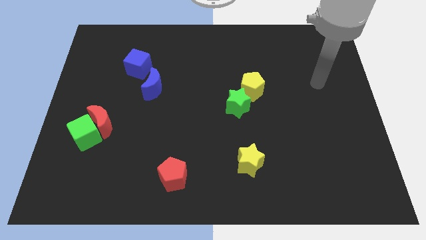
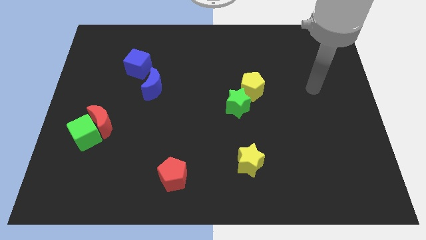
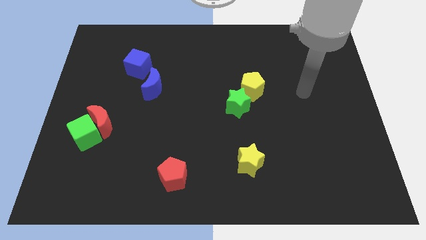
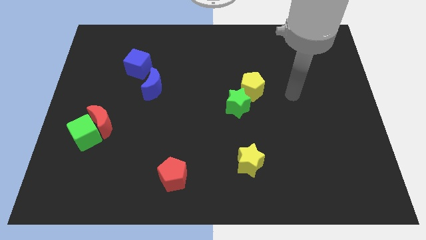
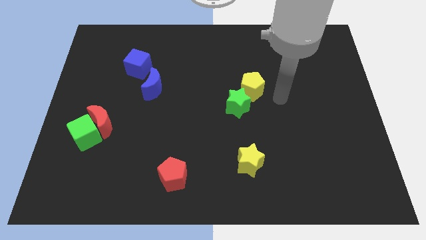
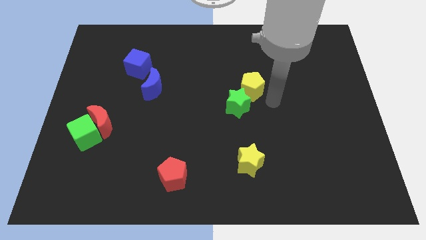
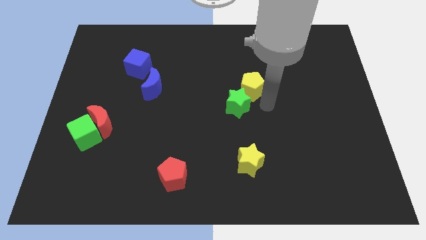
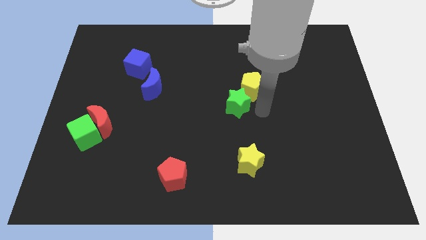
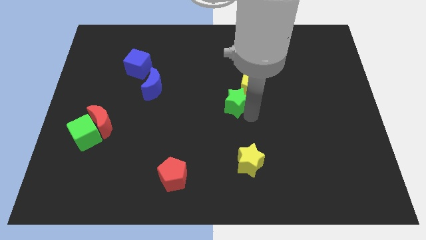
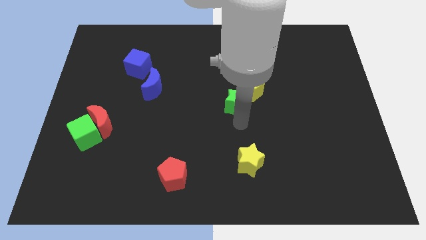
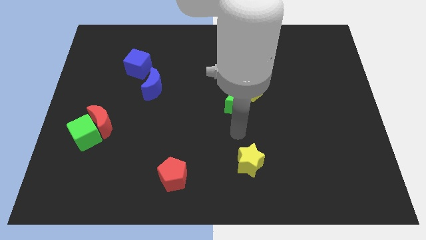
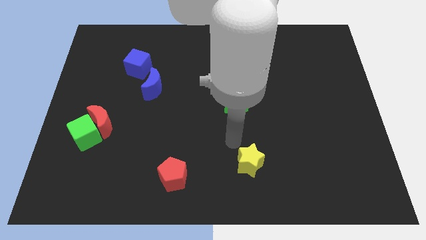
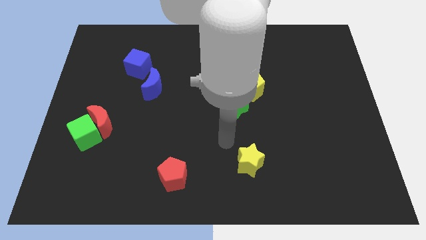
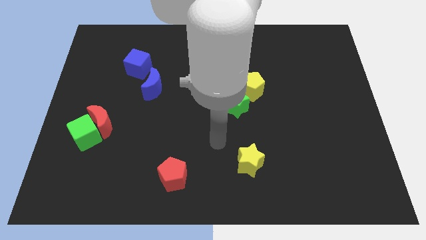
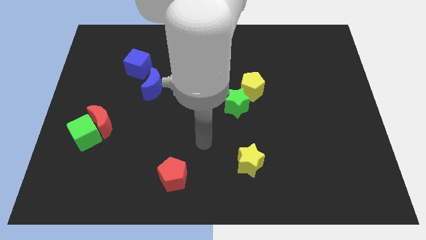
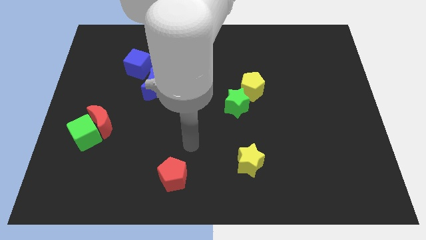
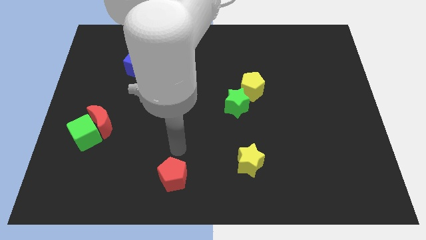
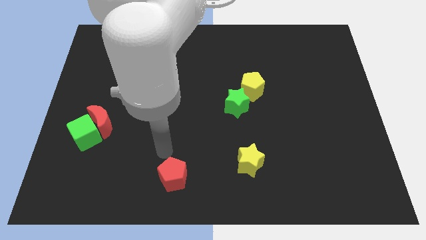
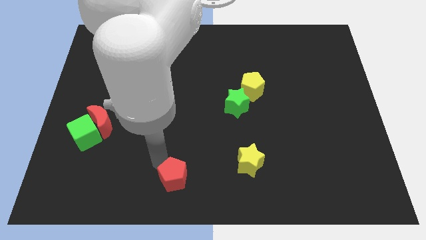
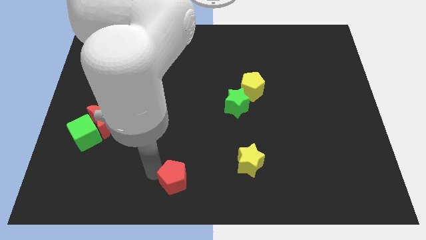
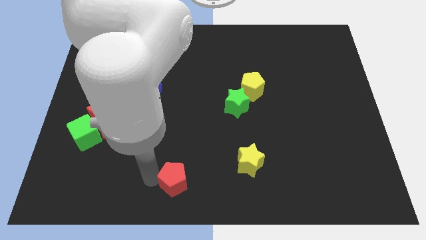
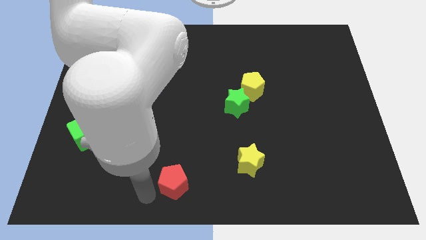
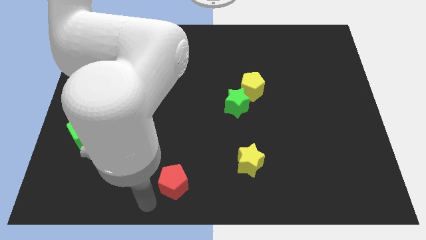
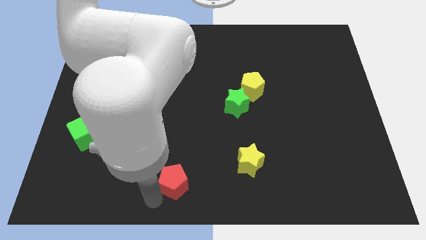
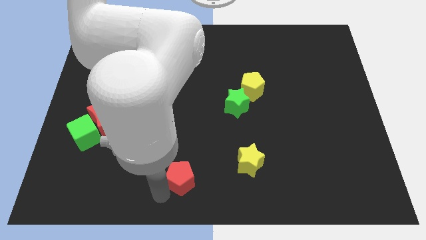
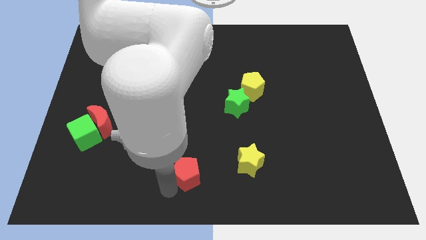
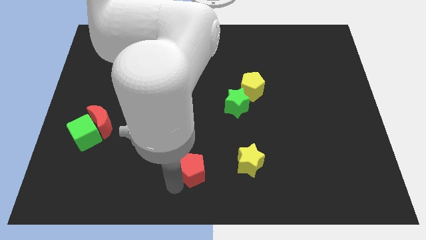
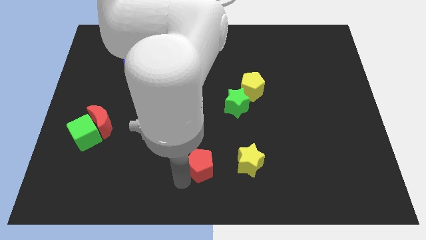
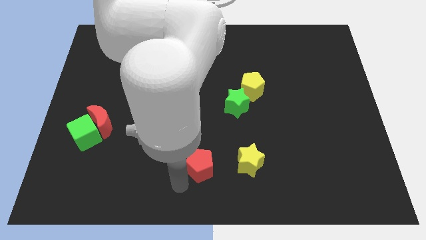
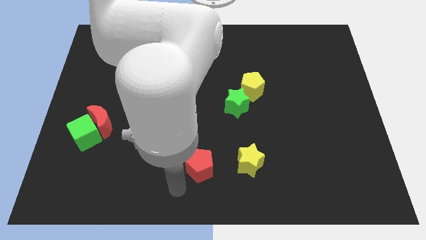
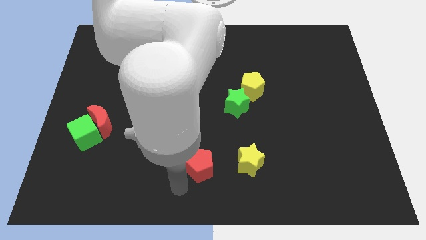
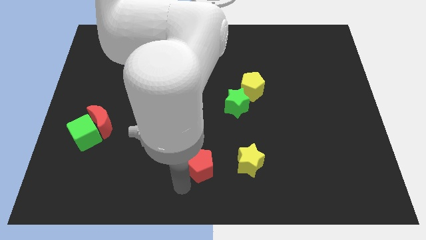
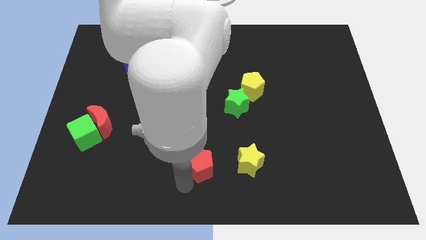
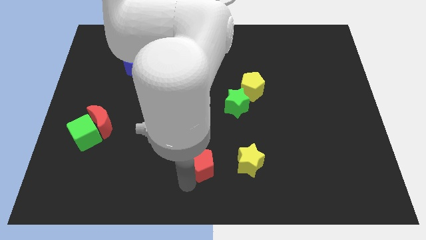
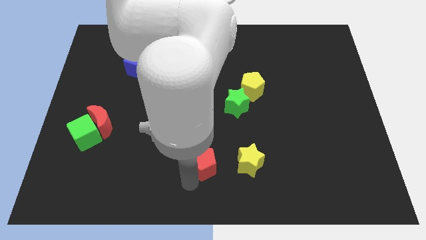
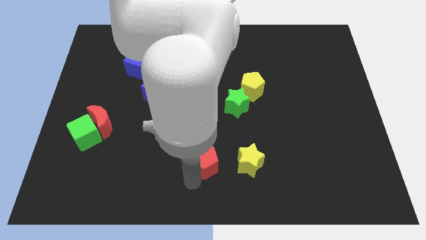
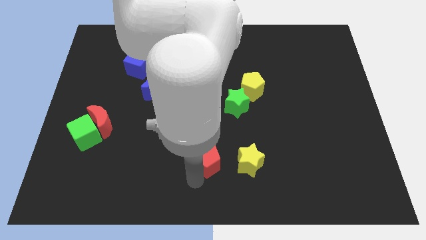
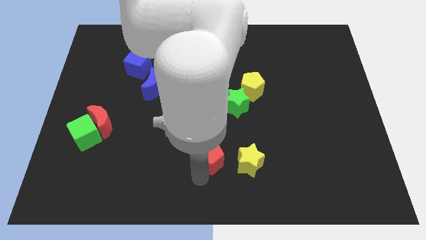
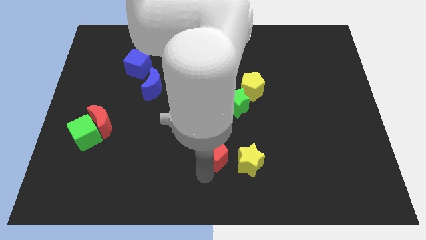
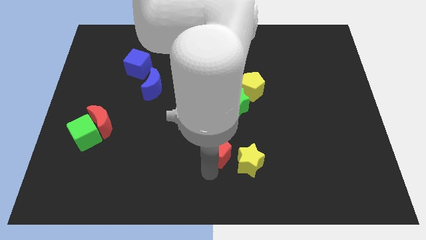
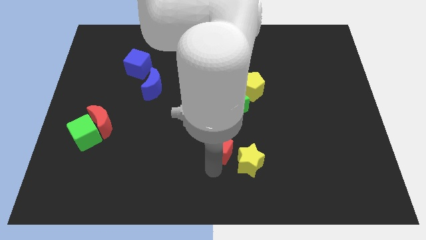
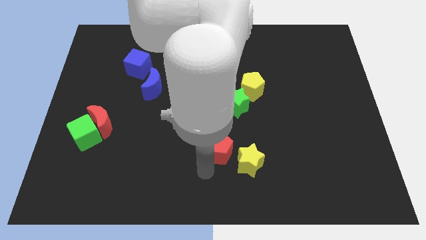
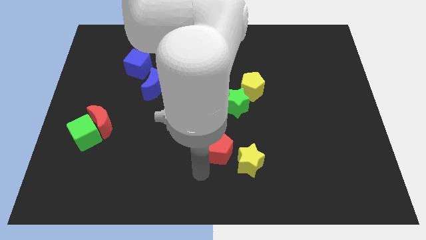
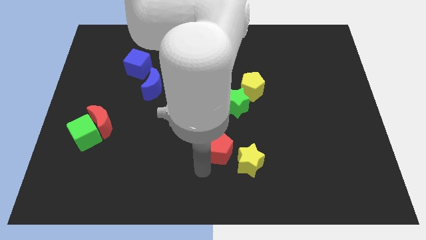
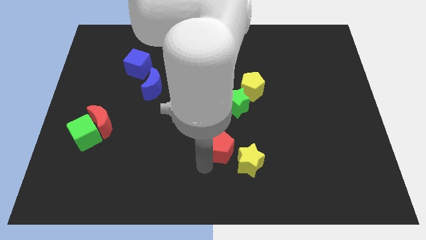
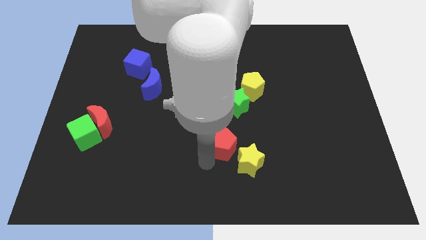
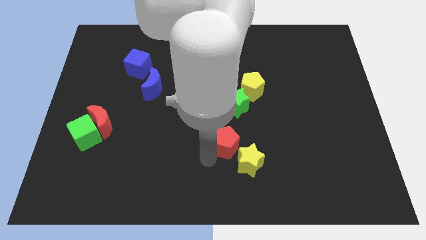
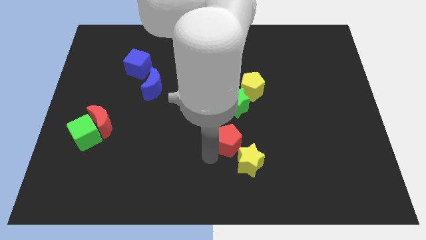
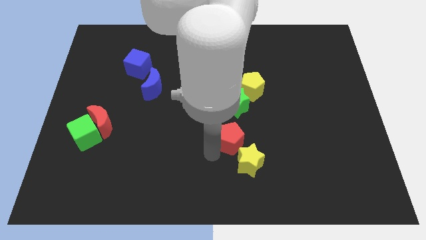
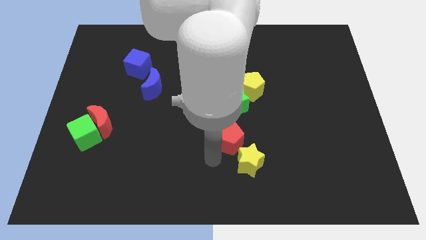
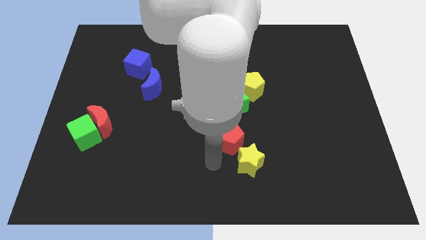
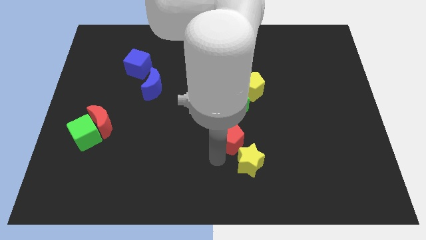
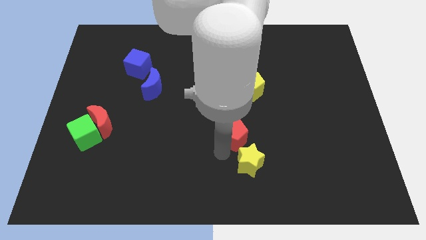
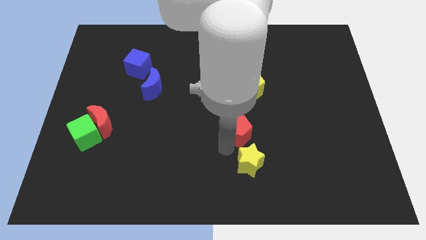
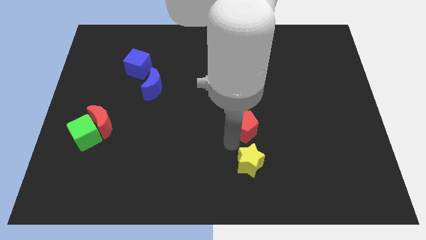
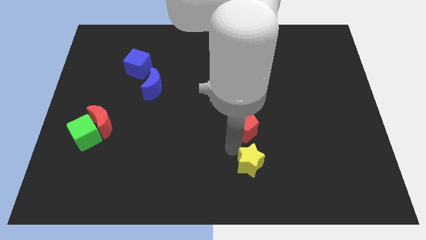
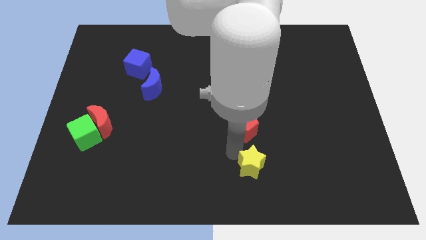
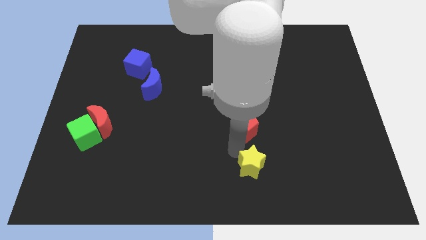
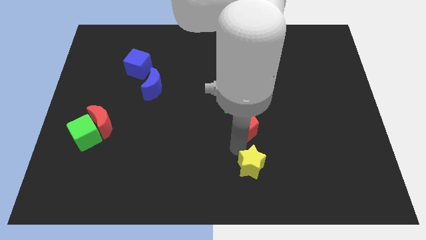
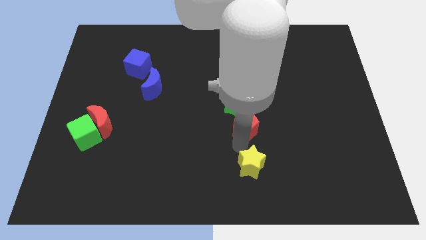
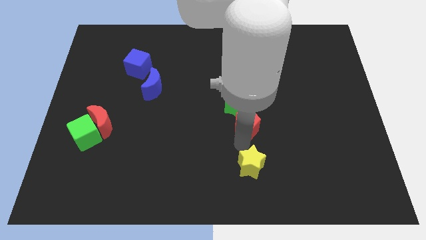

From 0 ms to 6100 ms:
push the red pentagon up and right diagonally

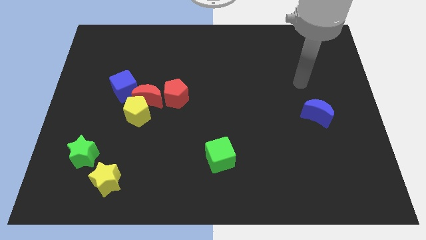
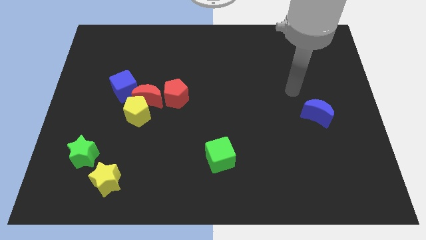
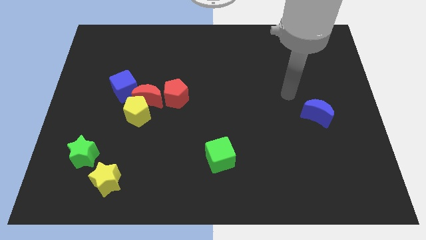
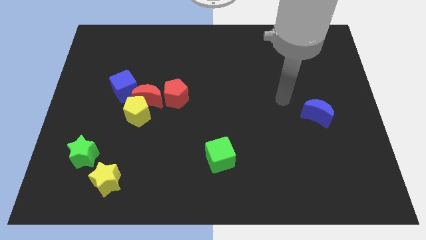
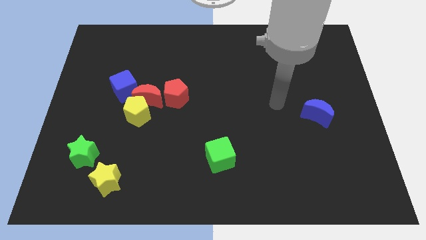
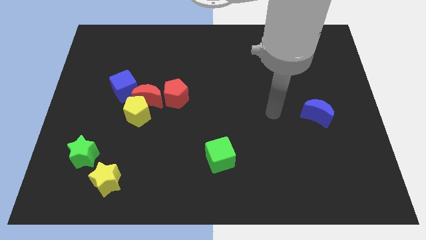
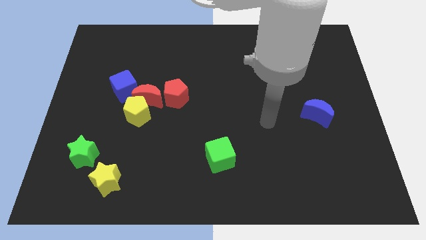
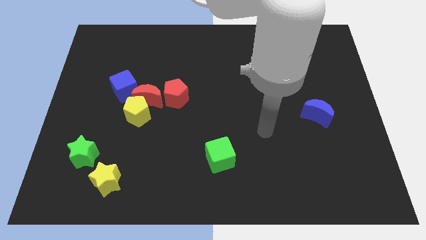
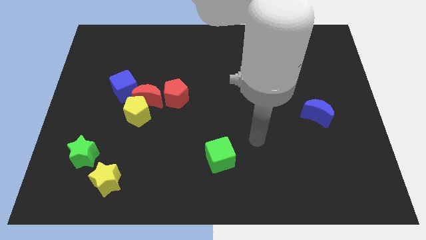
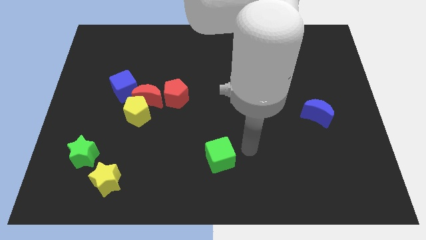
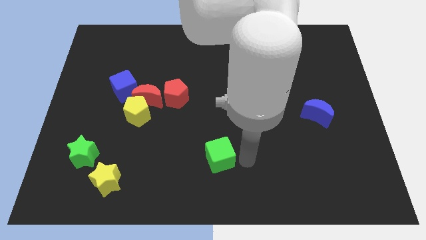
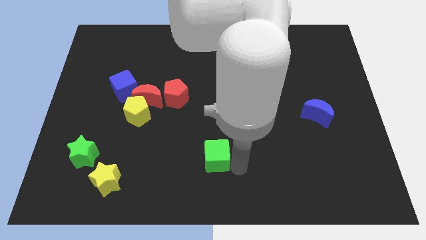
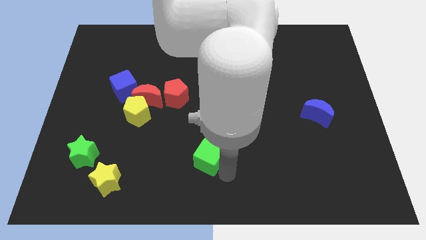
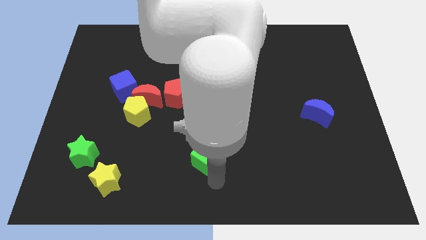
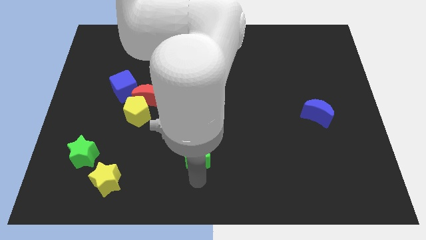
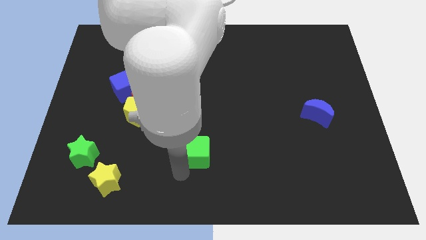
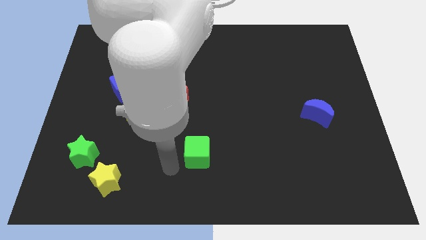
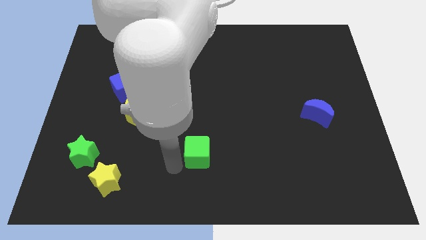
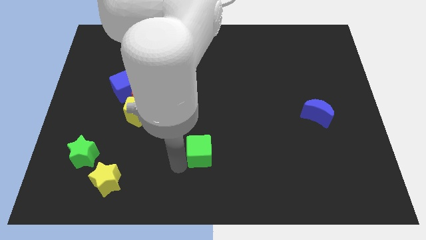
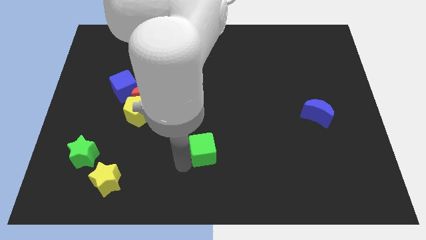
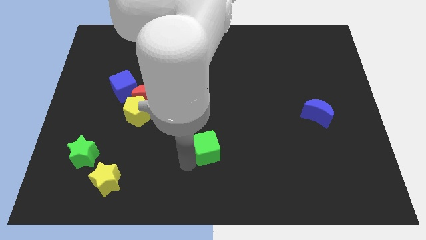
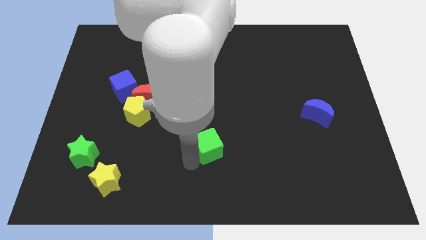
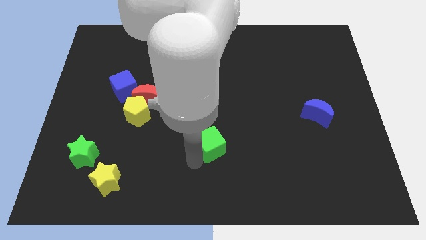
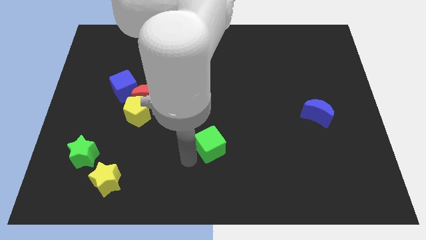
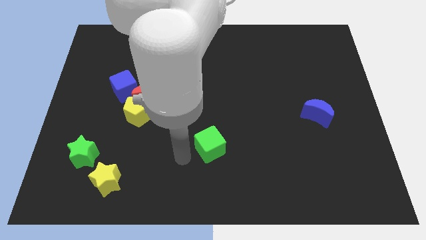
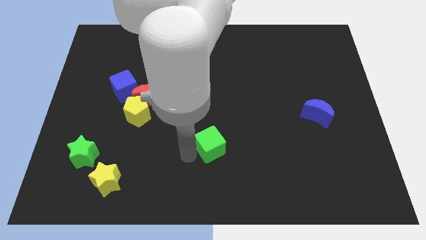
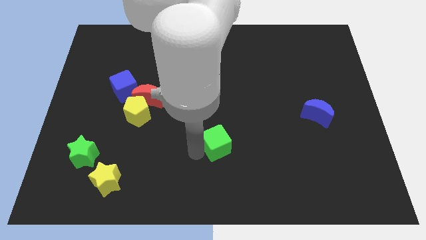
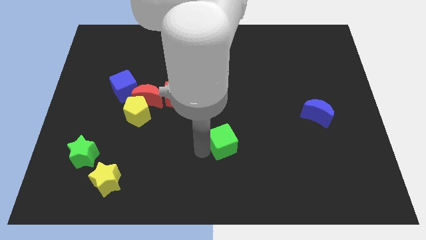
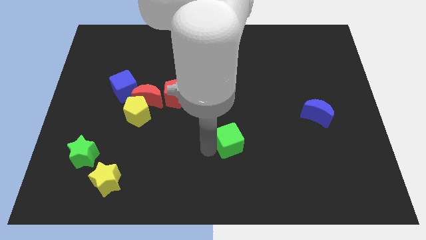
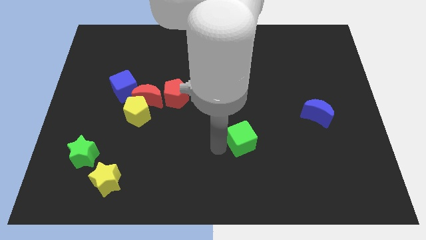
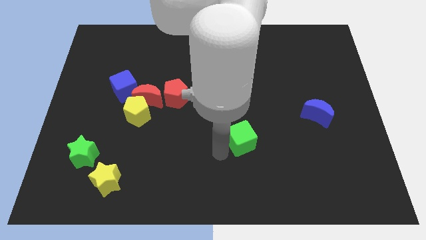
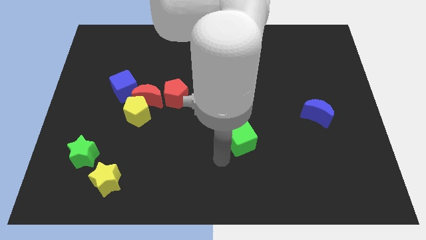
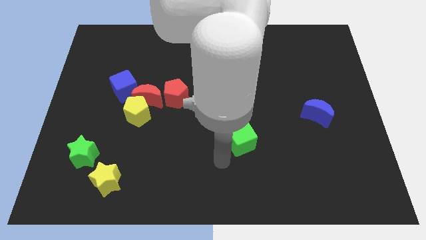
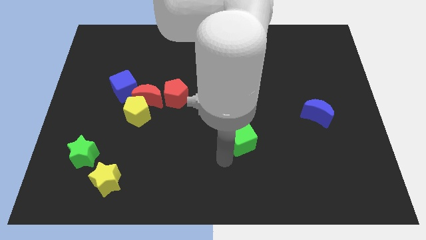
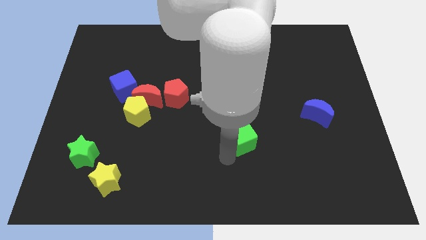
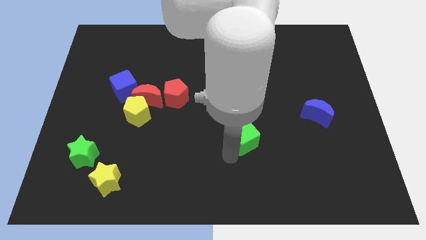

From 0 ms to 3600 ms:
move the green cube upwards and then right a bit
